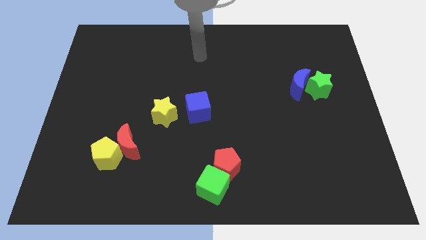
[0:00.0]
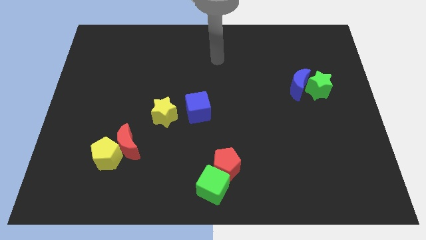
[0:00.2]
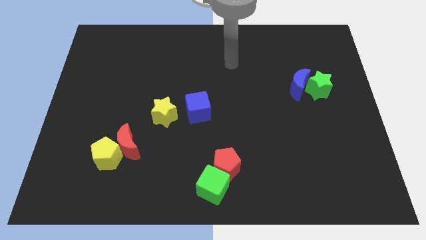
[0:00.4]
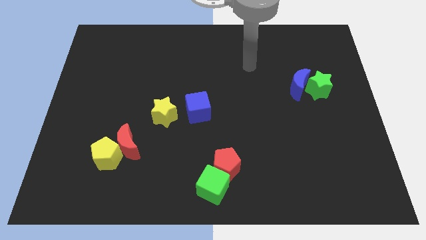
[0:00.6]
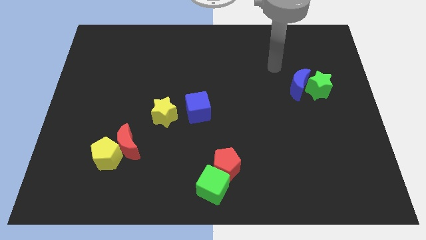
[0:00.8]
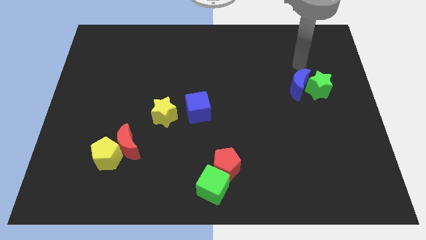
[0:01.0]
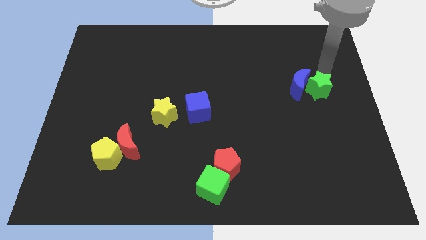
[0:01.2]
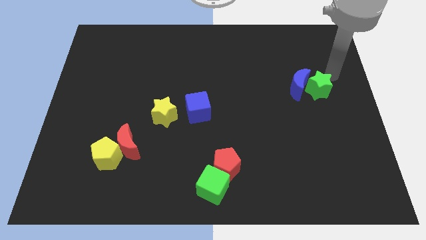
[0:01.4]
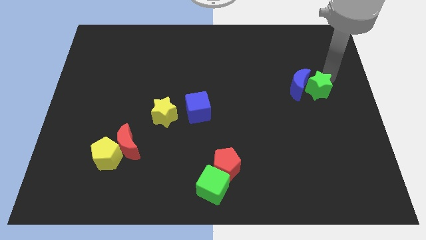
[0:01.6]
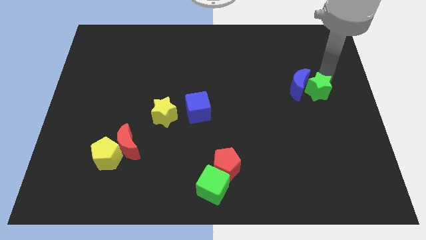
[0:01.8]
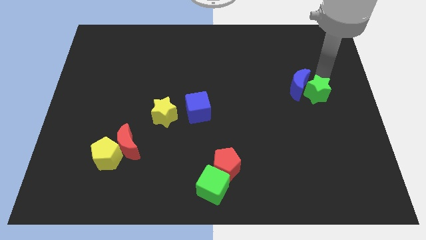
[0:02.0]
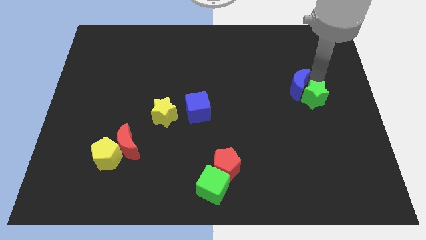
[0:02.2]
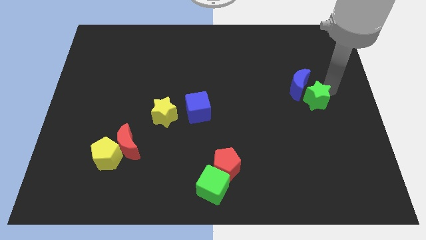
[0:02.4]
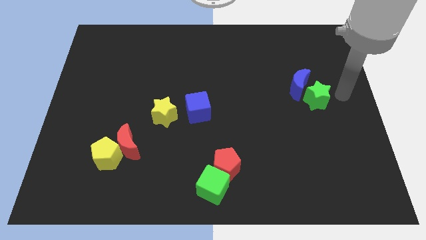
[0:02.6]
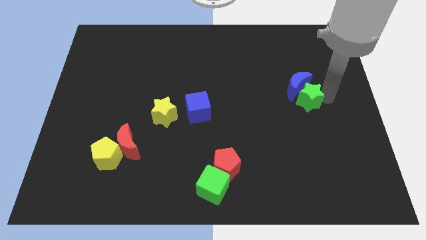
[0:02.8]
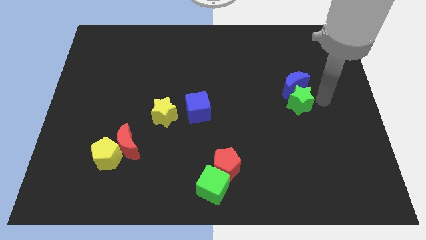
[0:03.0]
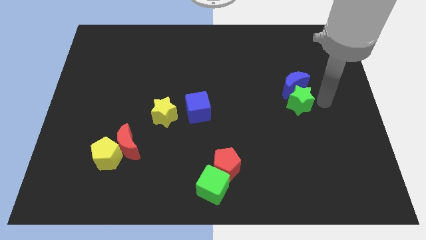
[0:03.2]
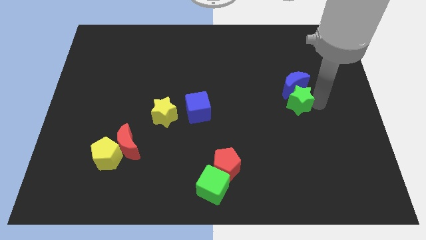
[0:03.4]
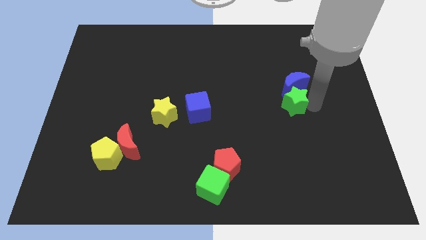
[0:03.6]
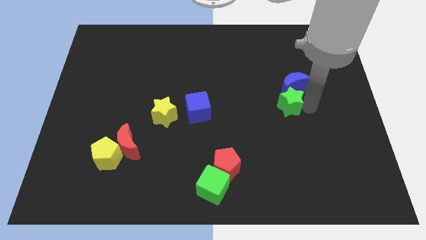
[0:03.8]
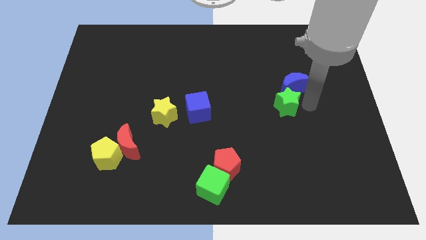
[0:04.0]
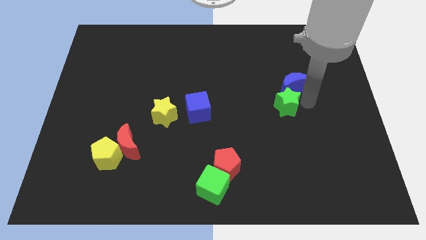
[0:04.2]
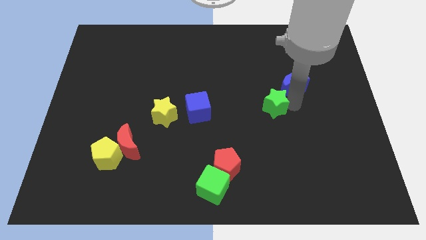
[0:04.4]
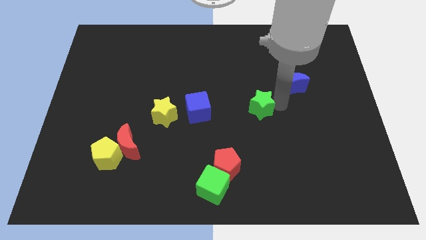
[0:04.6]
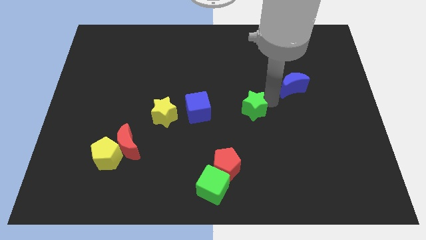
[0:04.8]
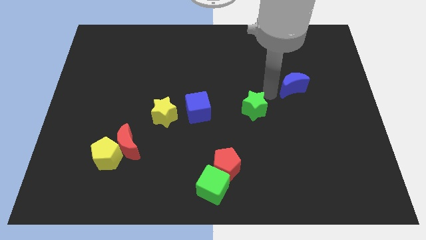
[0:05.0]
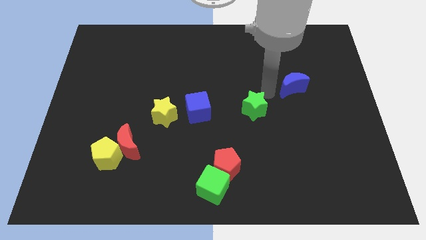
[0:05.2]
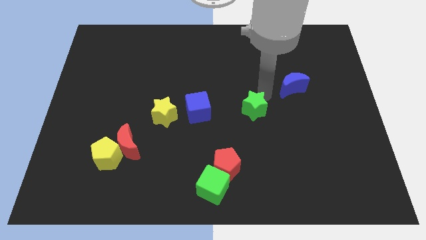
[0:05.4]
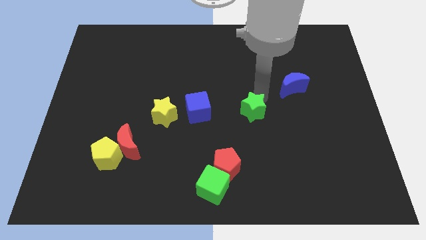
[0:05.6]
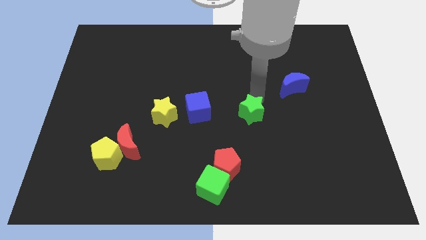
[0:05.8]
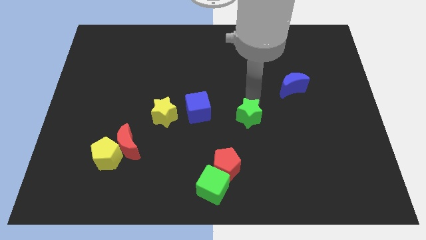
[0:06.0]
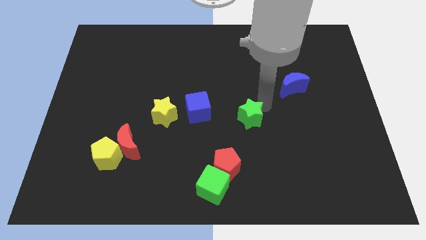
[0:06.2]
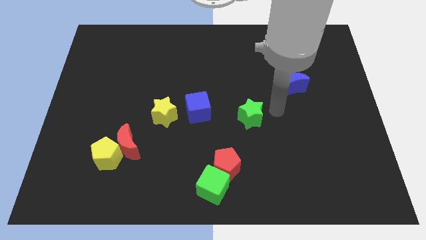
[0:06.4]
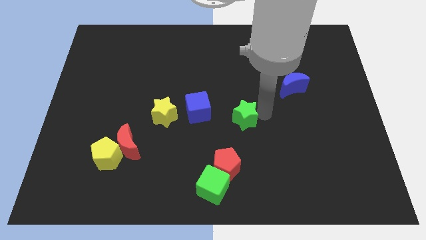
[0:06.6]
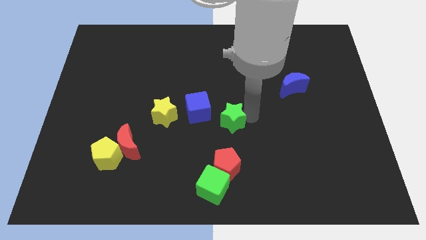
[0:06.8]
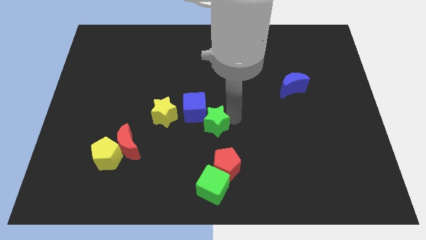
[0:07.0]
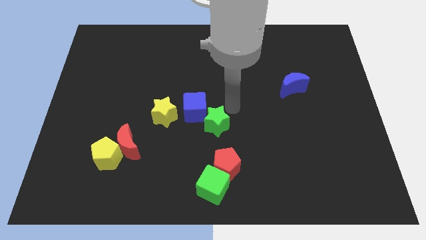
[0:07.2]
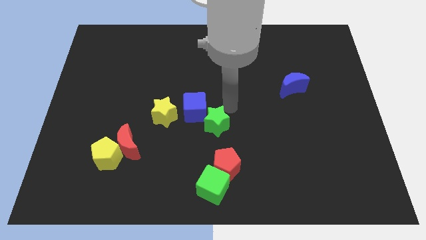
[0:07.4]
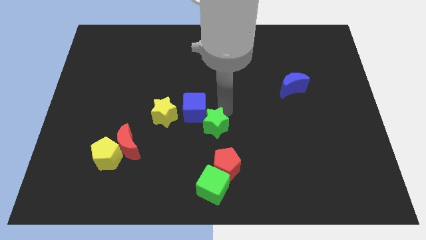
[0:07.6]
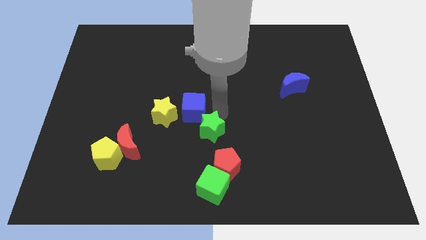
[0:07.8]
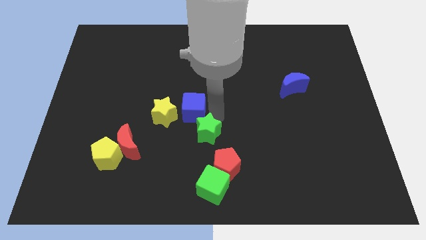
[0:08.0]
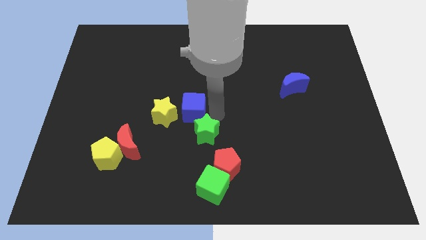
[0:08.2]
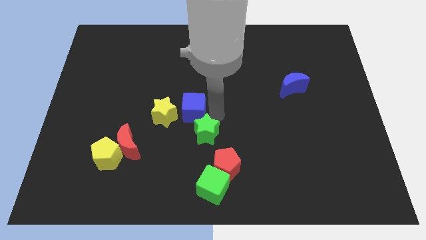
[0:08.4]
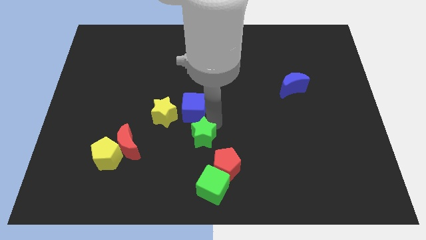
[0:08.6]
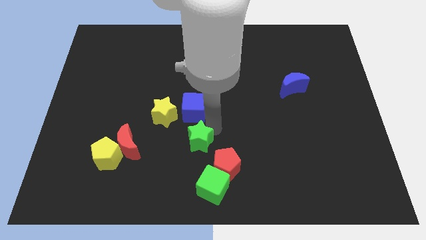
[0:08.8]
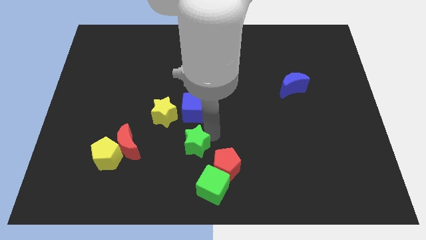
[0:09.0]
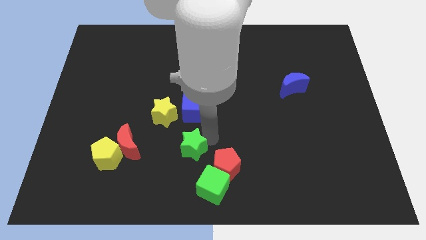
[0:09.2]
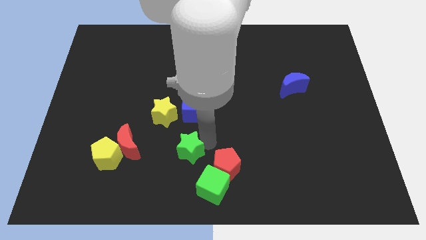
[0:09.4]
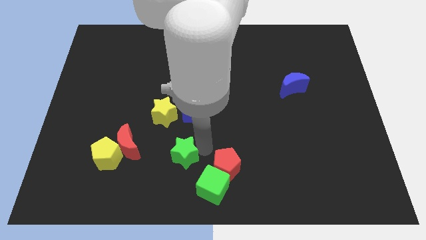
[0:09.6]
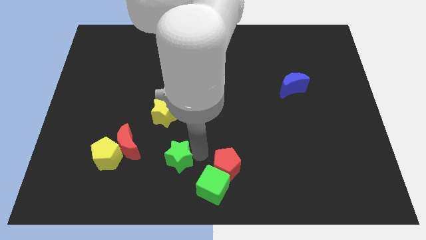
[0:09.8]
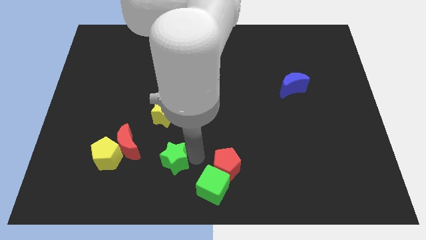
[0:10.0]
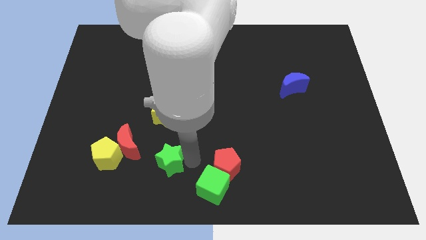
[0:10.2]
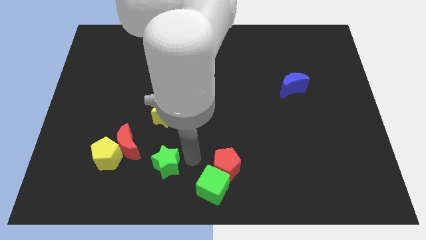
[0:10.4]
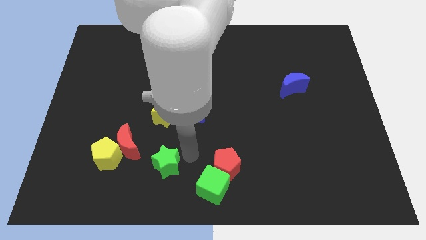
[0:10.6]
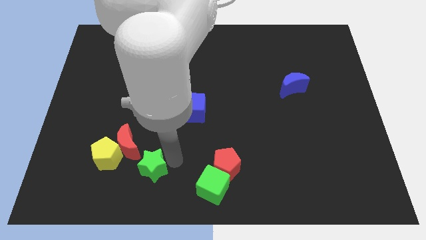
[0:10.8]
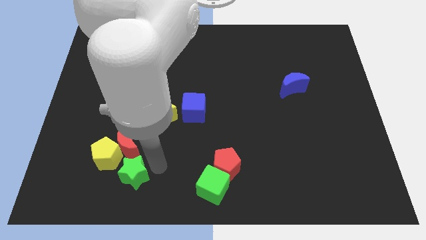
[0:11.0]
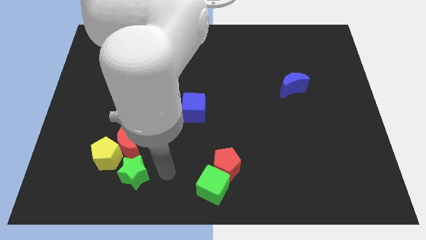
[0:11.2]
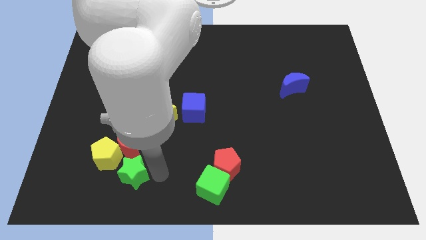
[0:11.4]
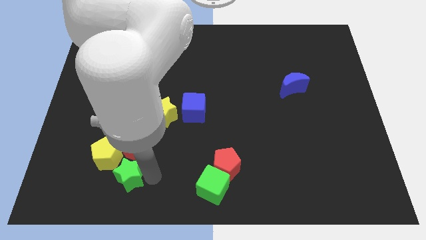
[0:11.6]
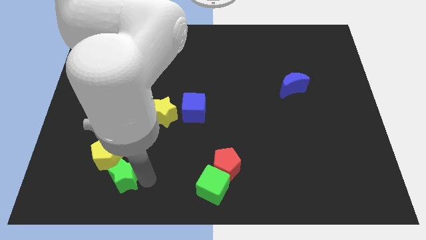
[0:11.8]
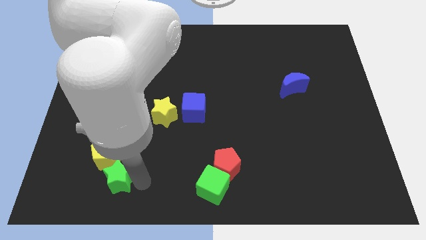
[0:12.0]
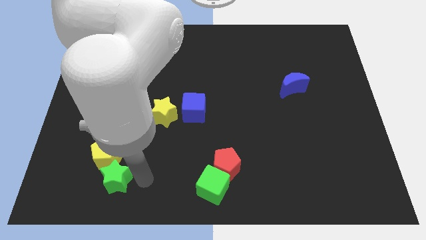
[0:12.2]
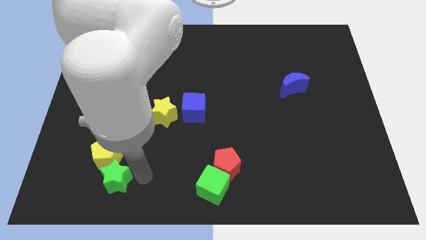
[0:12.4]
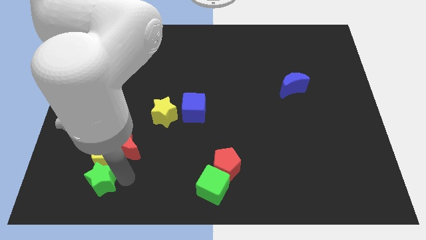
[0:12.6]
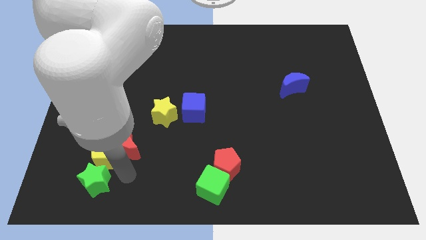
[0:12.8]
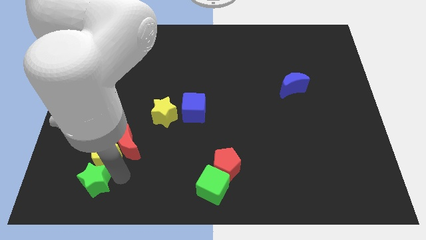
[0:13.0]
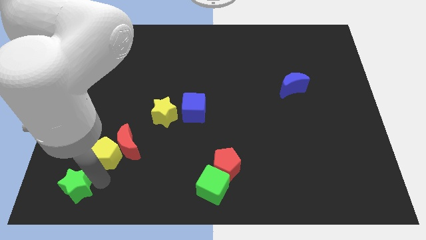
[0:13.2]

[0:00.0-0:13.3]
slide the green star to the bottom left of the board
